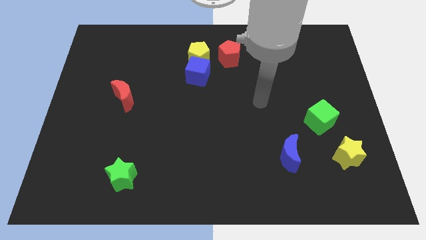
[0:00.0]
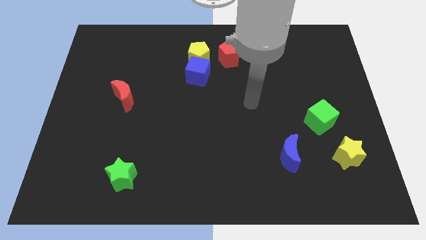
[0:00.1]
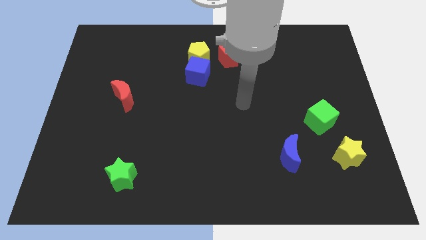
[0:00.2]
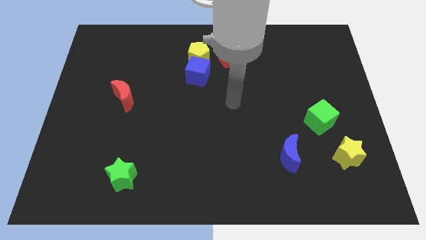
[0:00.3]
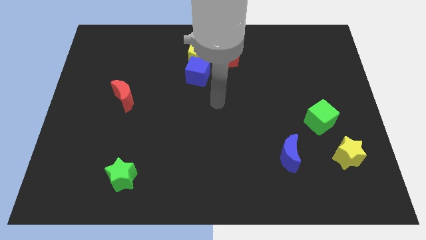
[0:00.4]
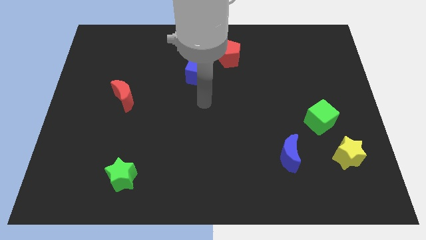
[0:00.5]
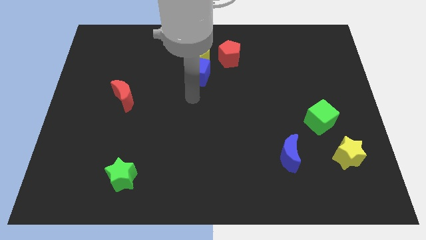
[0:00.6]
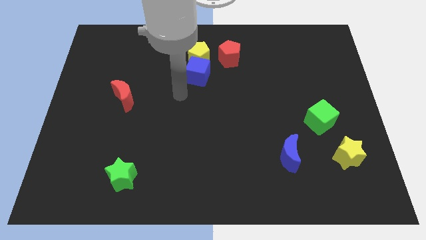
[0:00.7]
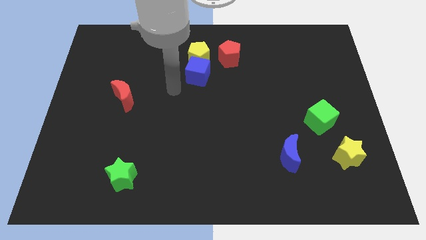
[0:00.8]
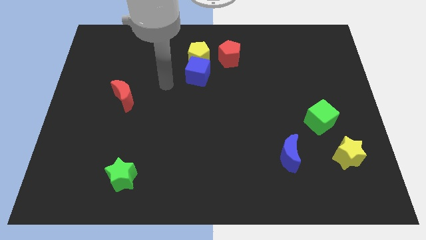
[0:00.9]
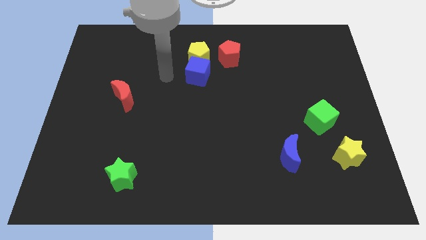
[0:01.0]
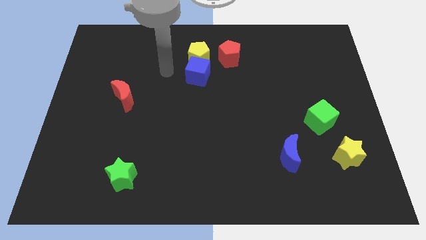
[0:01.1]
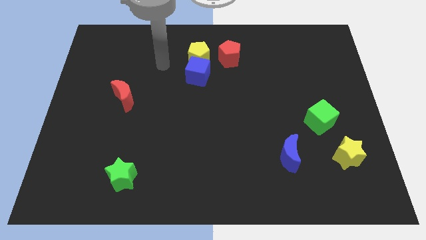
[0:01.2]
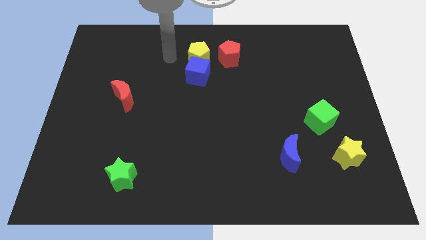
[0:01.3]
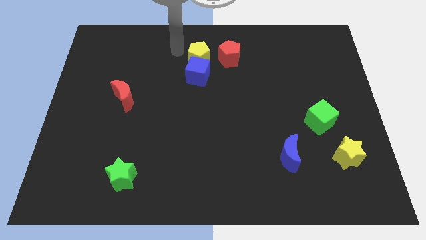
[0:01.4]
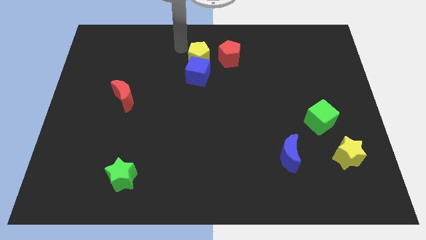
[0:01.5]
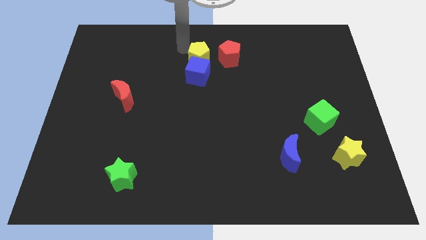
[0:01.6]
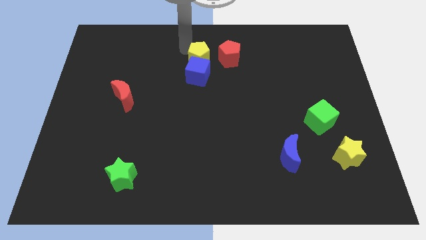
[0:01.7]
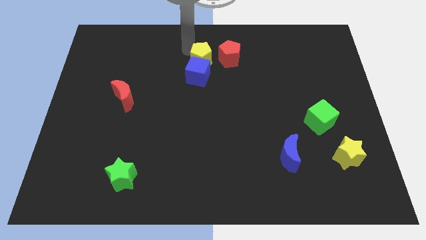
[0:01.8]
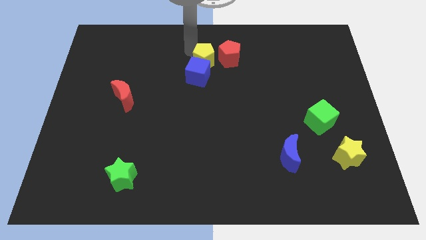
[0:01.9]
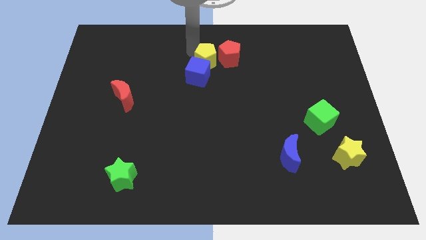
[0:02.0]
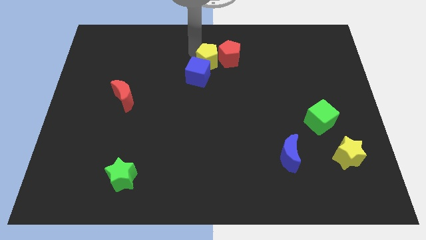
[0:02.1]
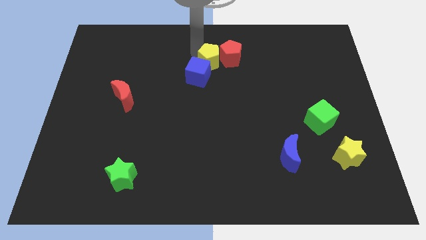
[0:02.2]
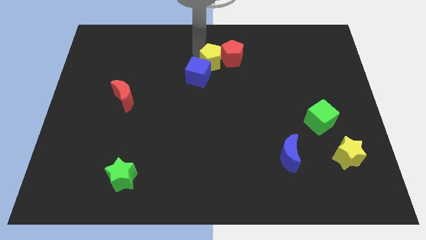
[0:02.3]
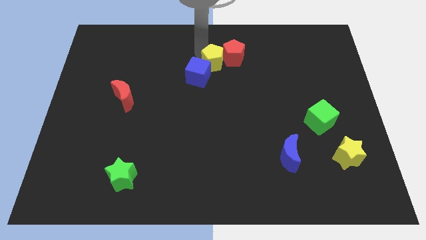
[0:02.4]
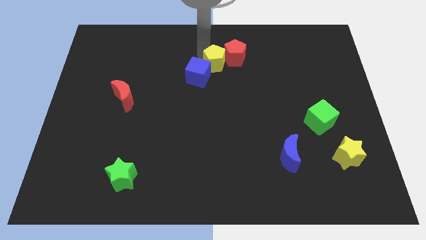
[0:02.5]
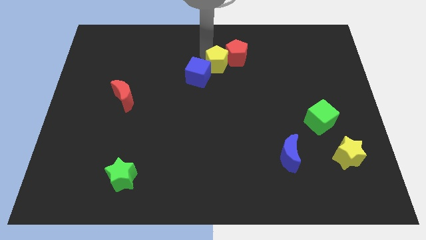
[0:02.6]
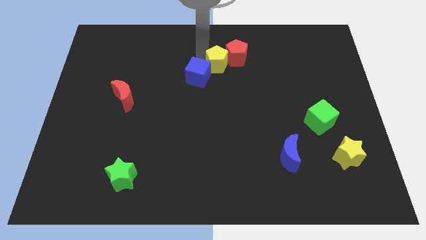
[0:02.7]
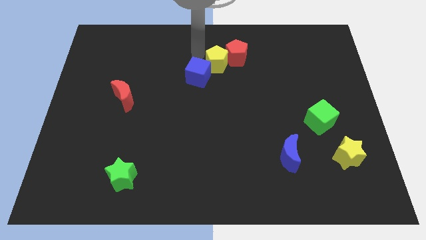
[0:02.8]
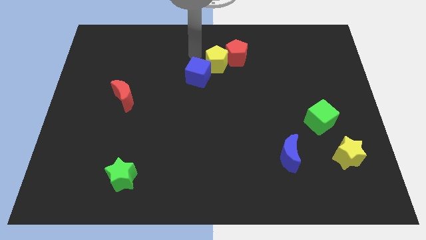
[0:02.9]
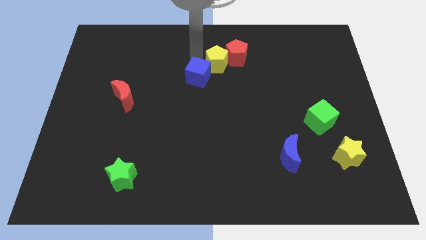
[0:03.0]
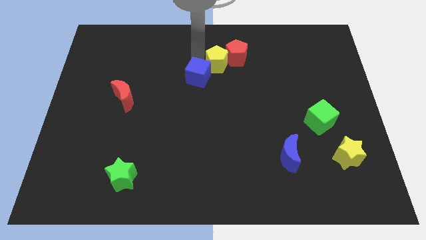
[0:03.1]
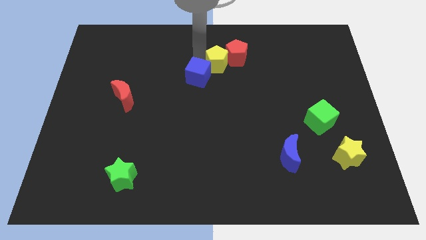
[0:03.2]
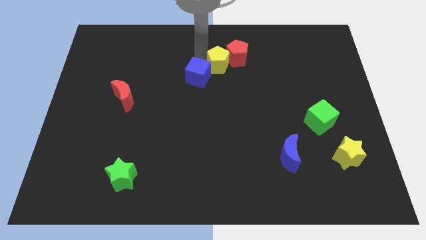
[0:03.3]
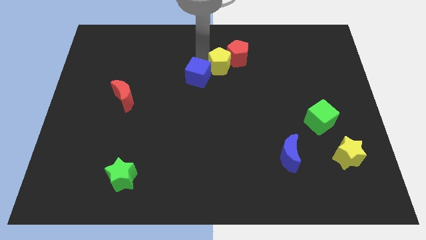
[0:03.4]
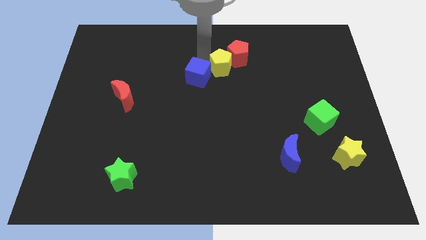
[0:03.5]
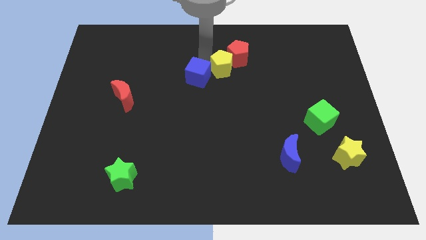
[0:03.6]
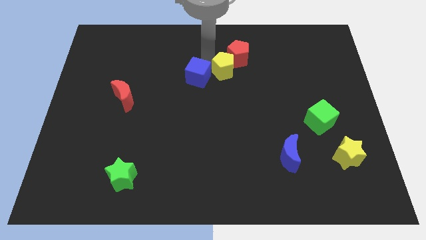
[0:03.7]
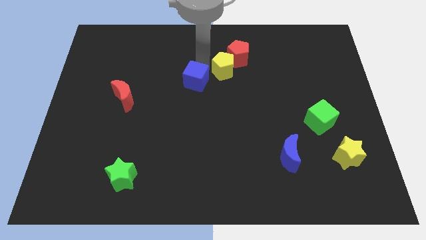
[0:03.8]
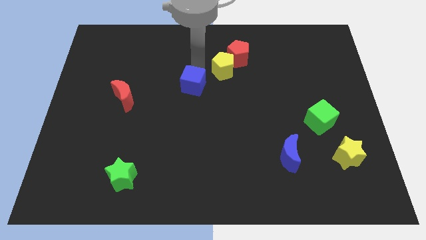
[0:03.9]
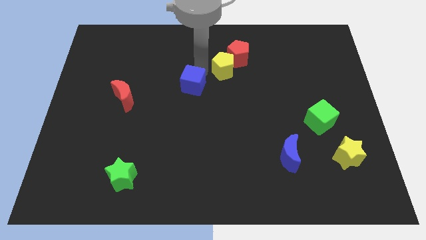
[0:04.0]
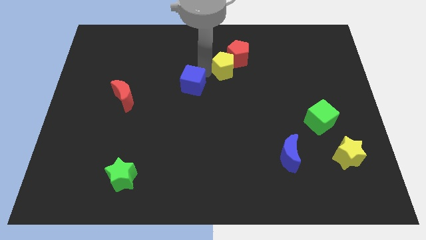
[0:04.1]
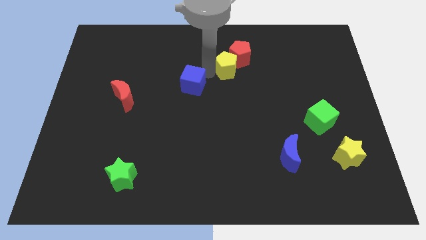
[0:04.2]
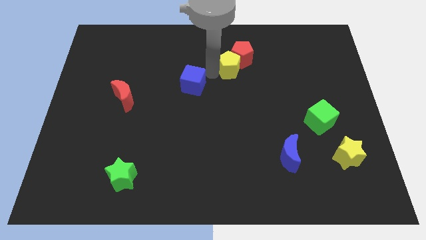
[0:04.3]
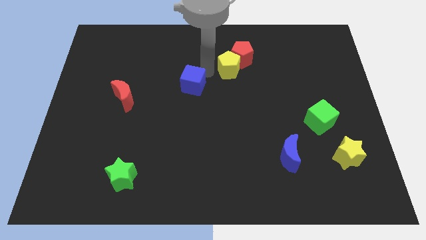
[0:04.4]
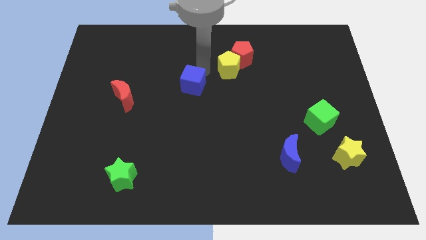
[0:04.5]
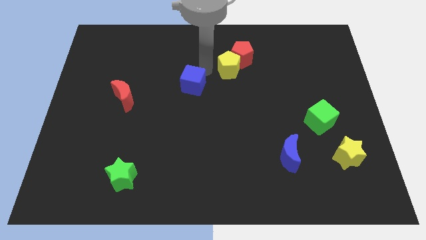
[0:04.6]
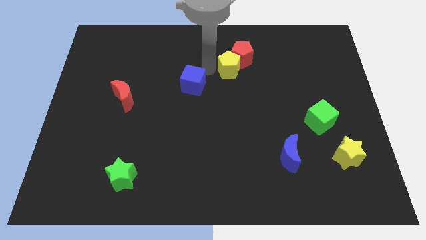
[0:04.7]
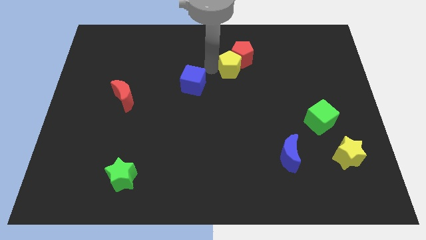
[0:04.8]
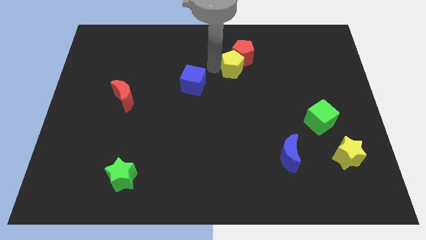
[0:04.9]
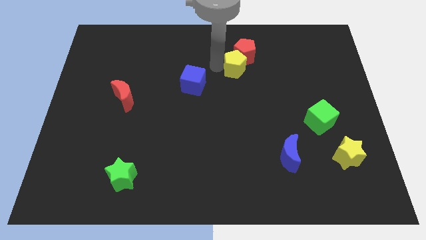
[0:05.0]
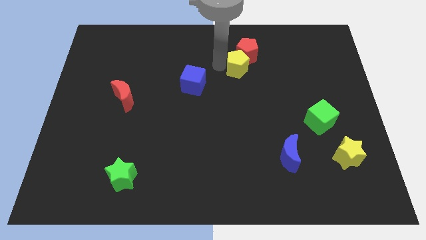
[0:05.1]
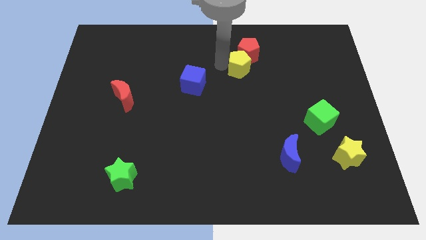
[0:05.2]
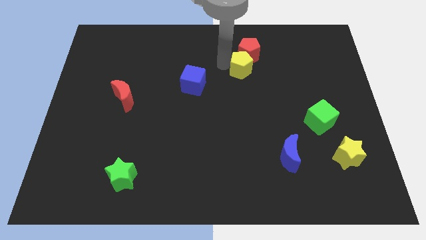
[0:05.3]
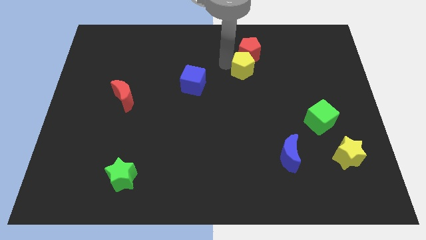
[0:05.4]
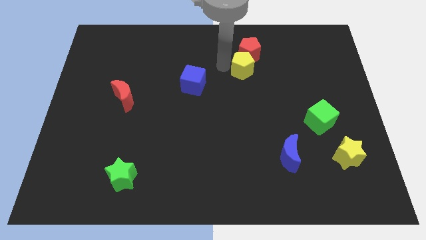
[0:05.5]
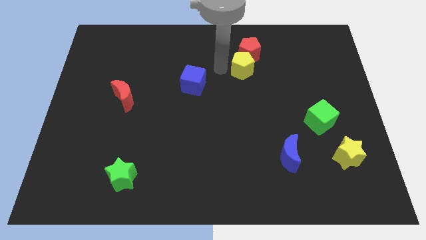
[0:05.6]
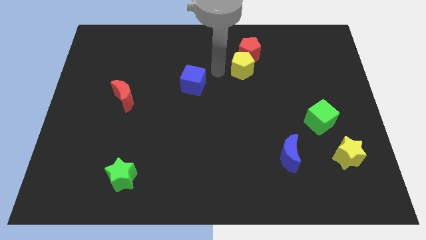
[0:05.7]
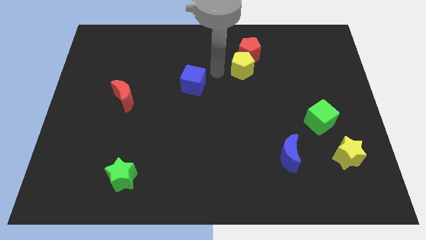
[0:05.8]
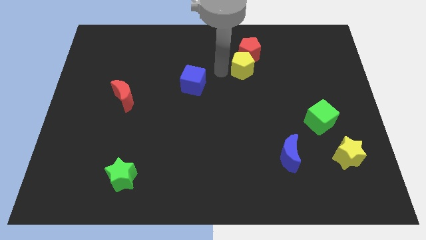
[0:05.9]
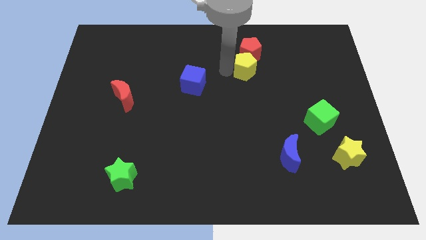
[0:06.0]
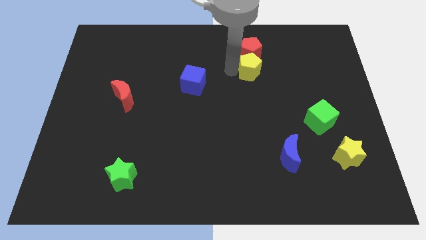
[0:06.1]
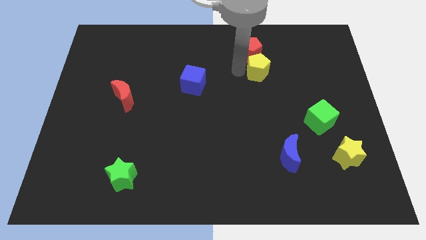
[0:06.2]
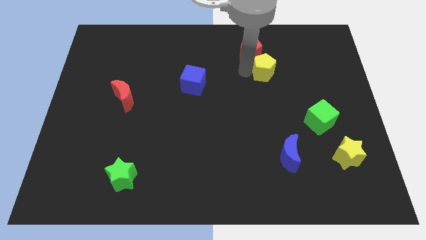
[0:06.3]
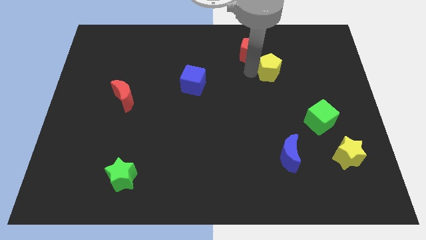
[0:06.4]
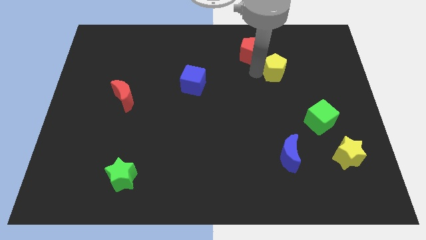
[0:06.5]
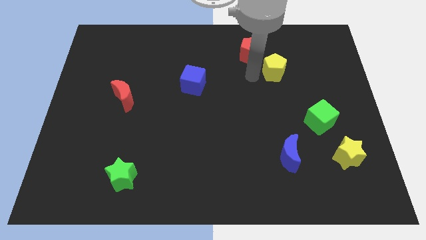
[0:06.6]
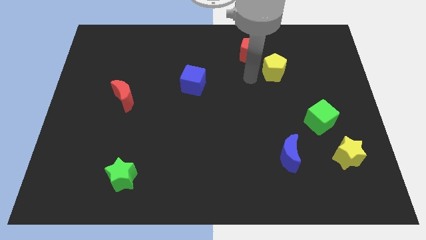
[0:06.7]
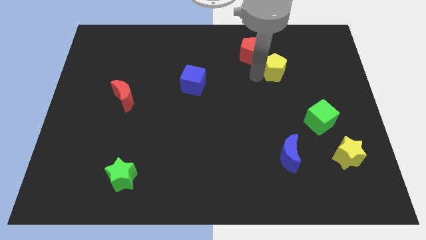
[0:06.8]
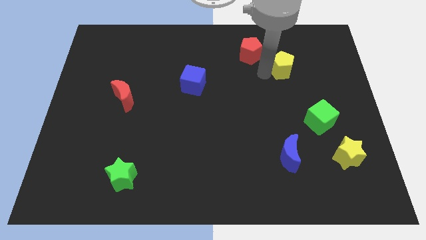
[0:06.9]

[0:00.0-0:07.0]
move the yellow pentagon right

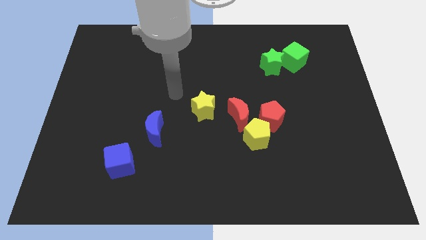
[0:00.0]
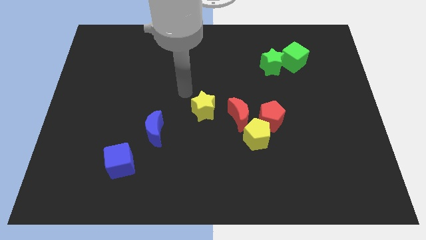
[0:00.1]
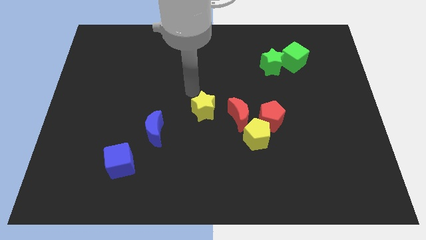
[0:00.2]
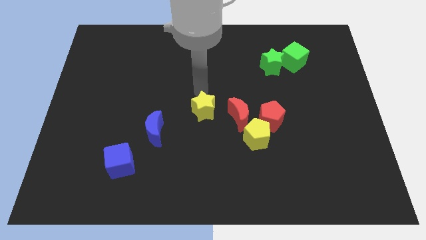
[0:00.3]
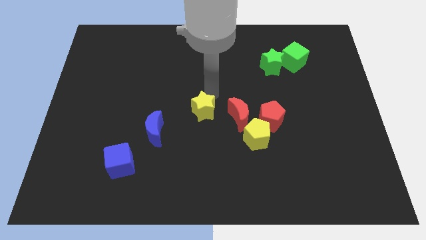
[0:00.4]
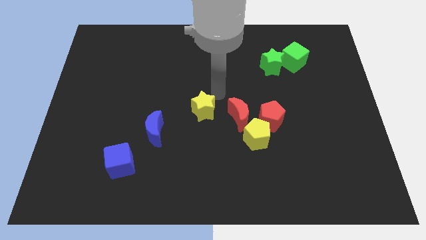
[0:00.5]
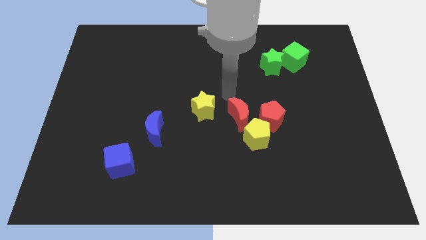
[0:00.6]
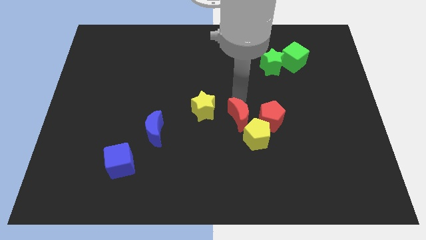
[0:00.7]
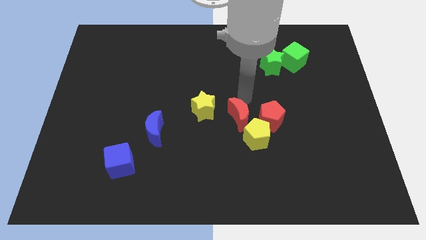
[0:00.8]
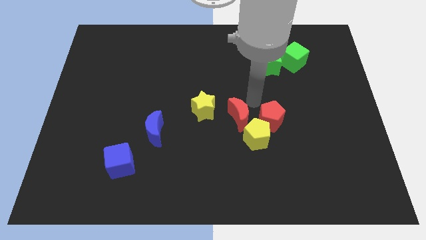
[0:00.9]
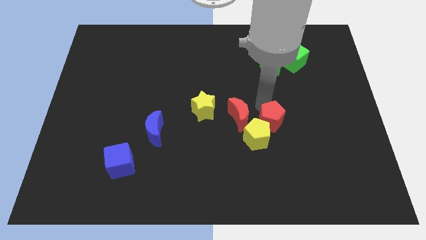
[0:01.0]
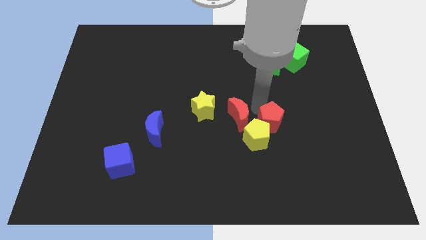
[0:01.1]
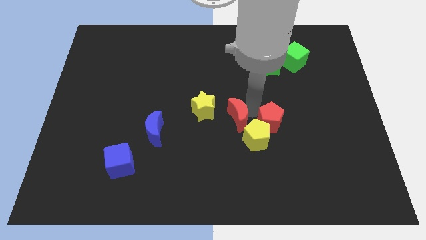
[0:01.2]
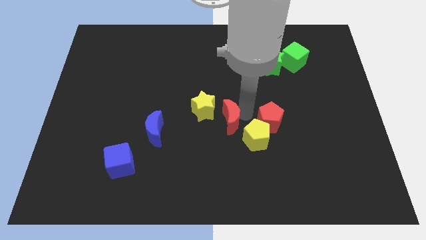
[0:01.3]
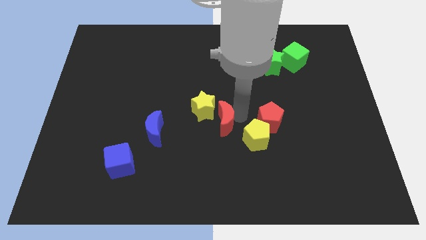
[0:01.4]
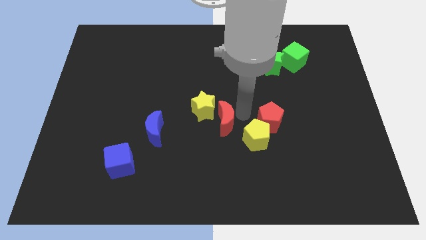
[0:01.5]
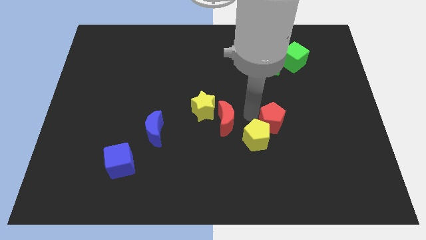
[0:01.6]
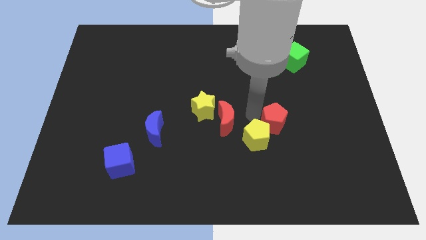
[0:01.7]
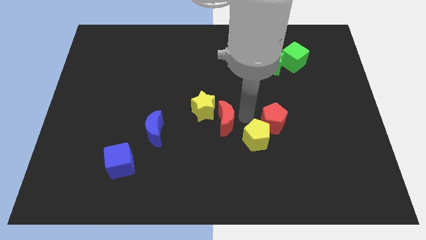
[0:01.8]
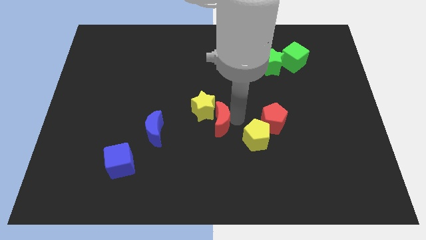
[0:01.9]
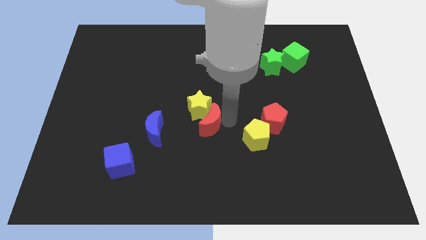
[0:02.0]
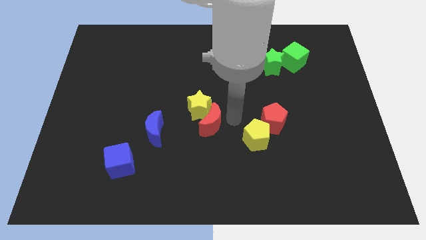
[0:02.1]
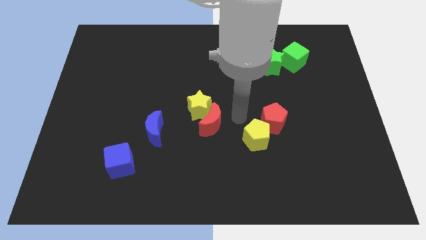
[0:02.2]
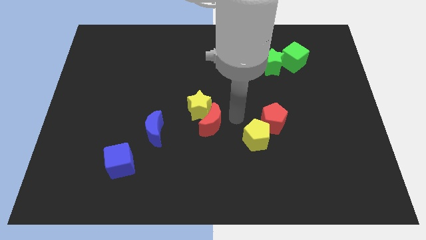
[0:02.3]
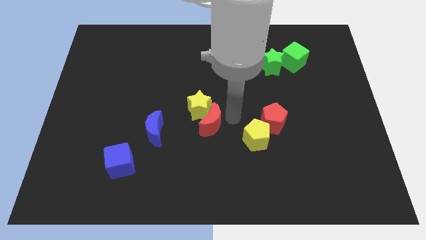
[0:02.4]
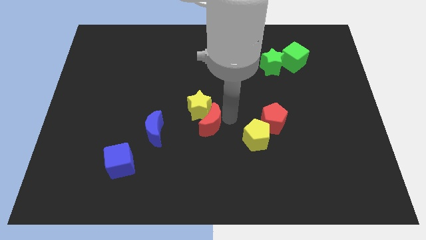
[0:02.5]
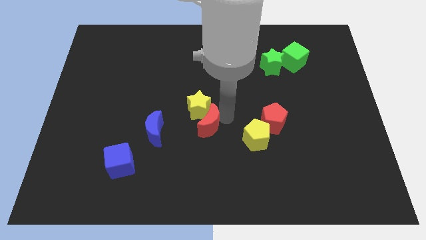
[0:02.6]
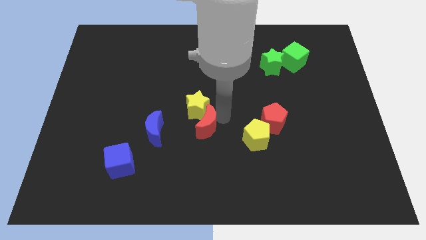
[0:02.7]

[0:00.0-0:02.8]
move the red moon to the left a little bit
